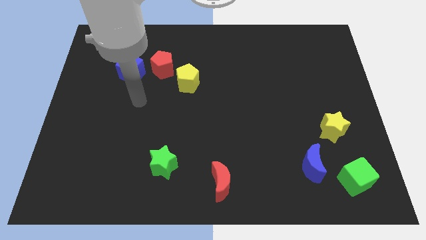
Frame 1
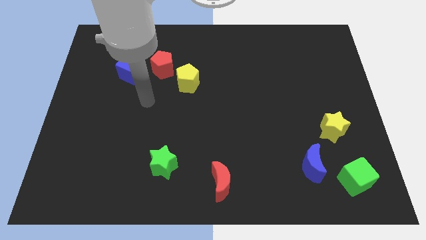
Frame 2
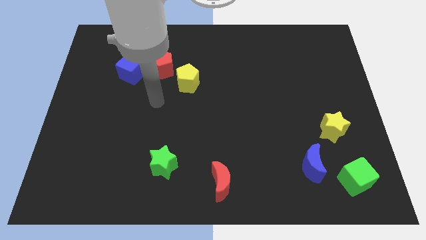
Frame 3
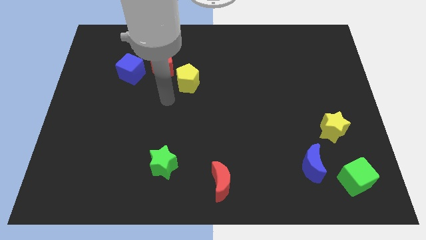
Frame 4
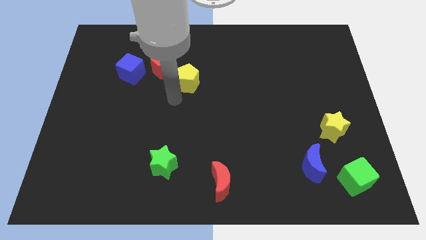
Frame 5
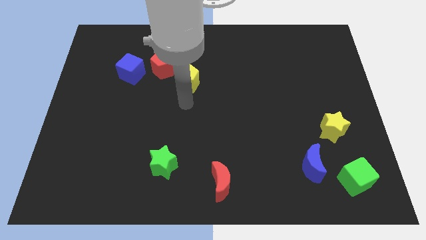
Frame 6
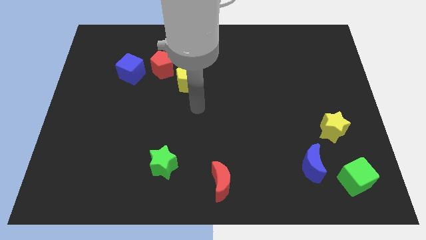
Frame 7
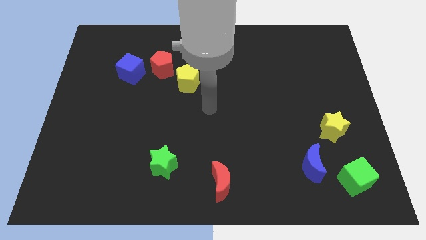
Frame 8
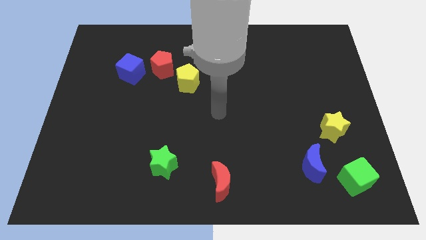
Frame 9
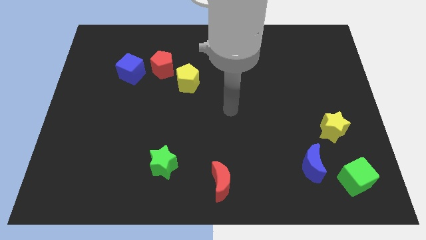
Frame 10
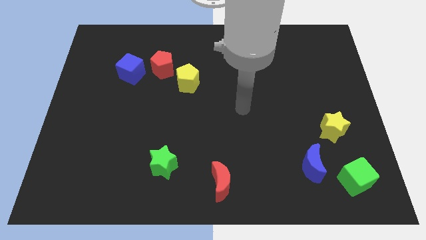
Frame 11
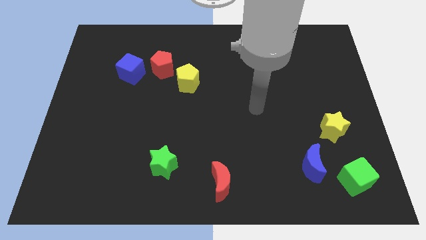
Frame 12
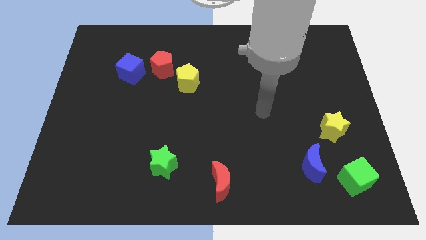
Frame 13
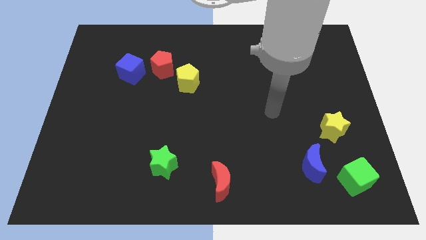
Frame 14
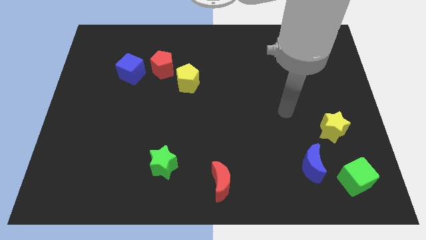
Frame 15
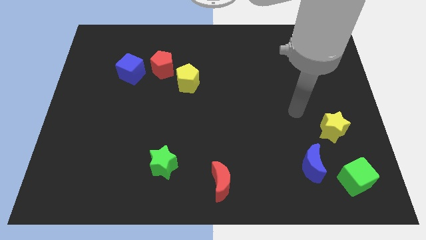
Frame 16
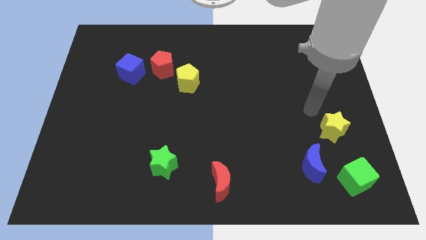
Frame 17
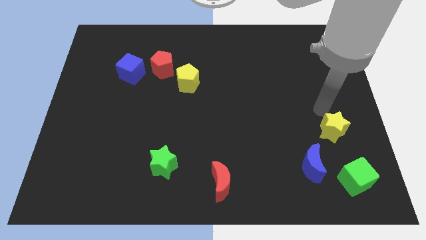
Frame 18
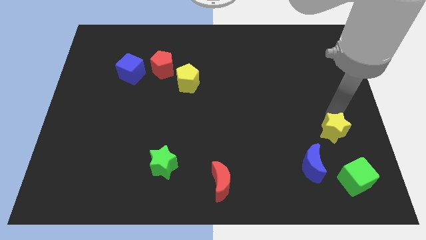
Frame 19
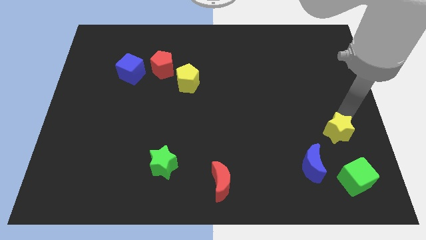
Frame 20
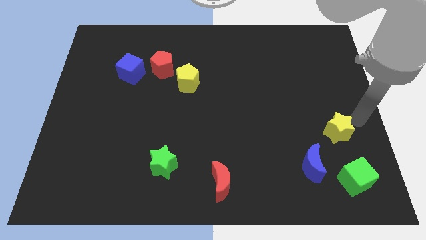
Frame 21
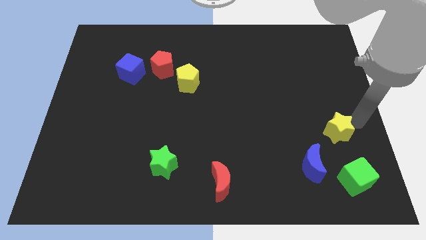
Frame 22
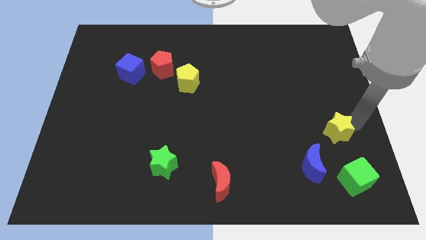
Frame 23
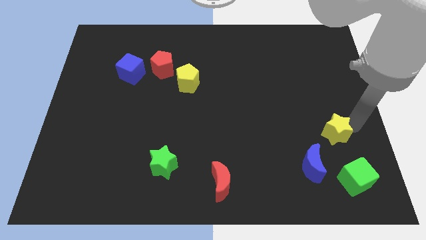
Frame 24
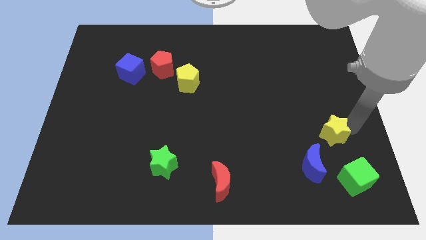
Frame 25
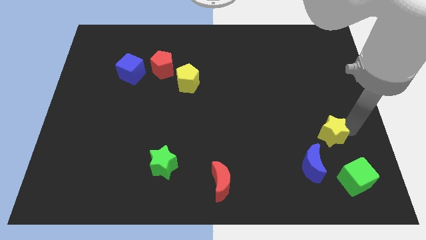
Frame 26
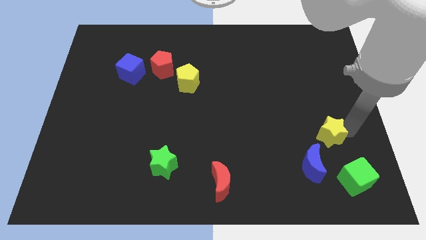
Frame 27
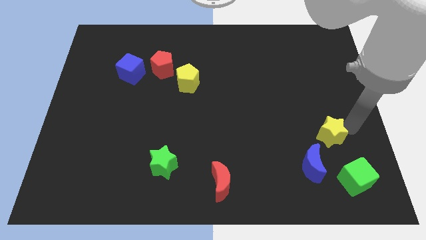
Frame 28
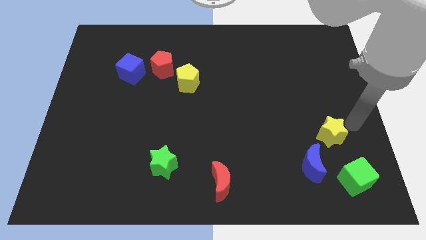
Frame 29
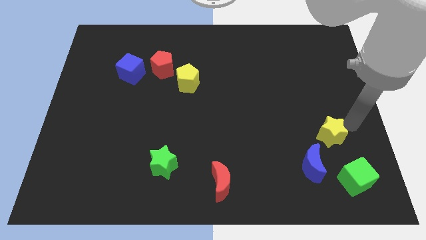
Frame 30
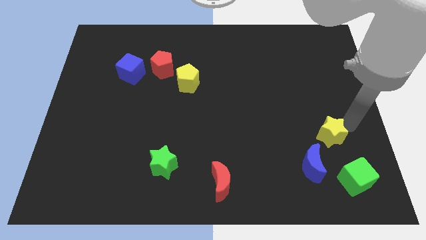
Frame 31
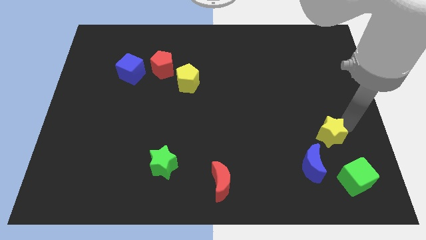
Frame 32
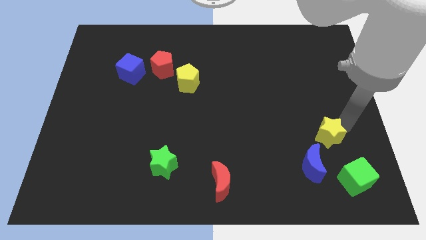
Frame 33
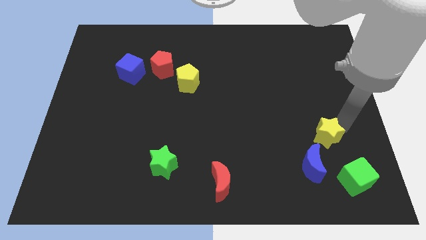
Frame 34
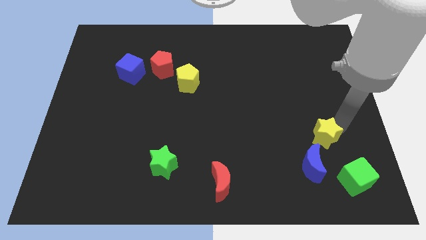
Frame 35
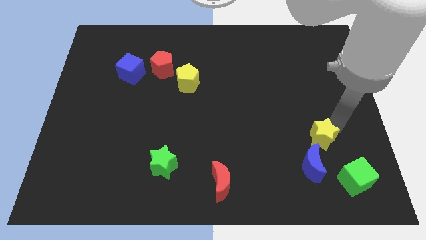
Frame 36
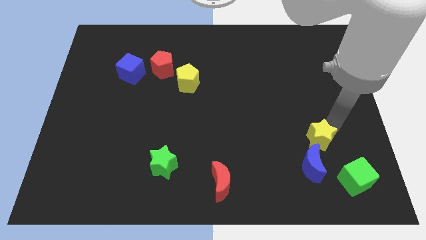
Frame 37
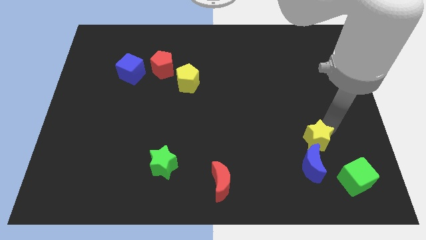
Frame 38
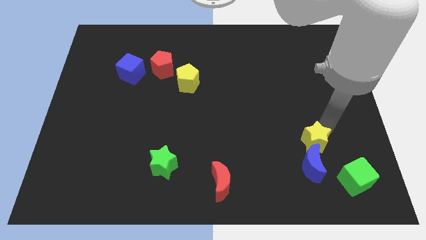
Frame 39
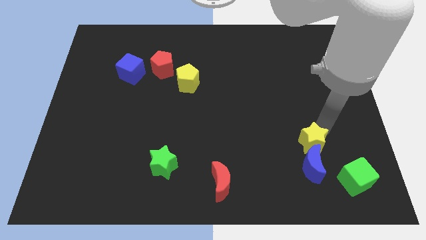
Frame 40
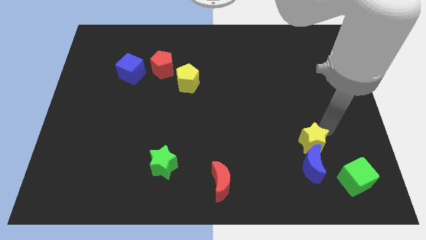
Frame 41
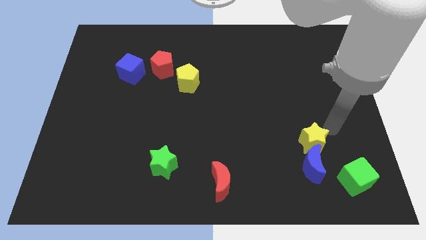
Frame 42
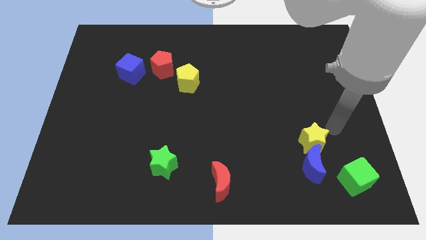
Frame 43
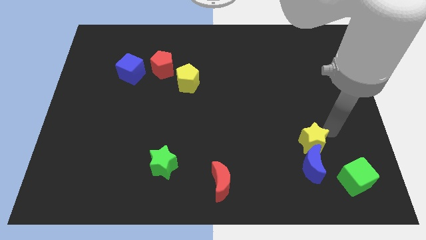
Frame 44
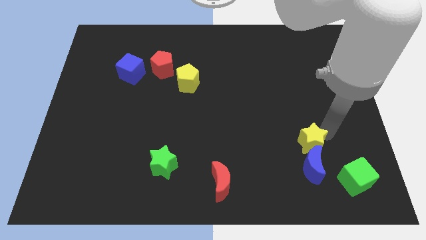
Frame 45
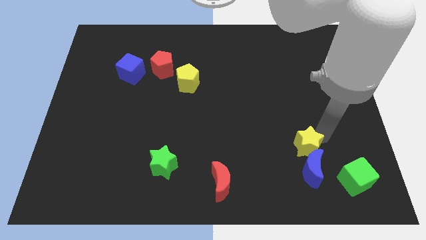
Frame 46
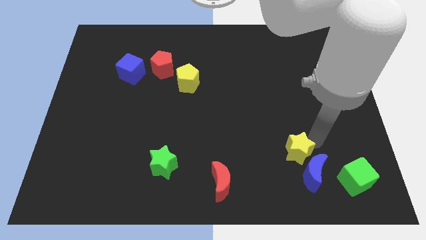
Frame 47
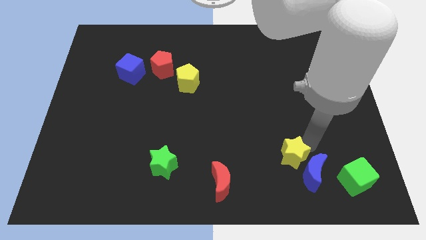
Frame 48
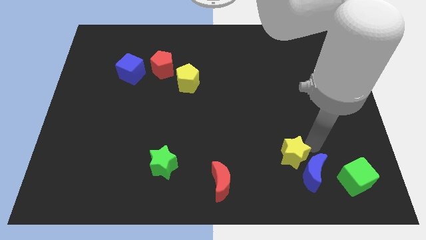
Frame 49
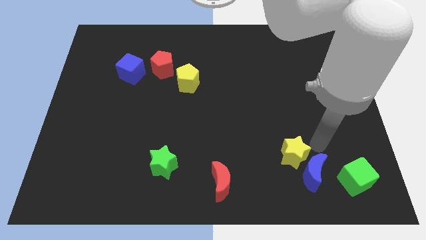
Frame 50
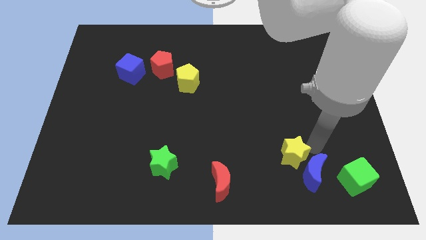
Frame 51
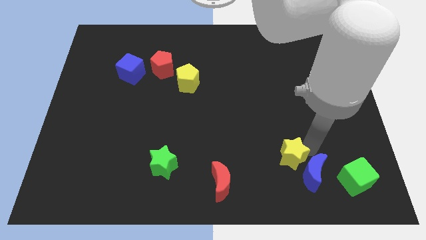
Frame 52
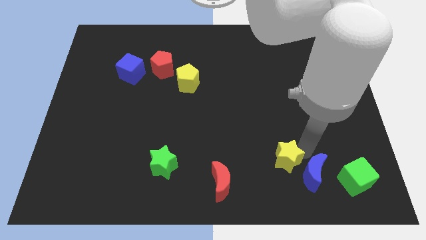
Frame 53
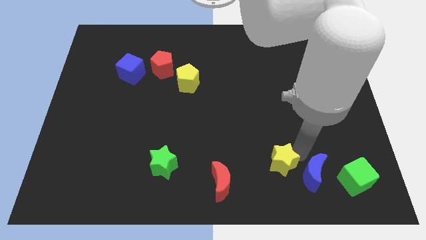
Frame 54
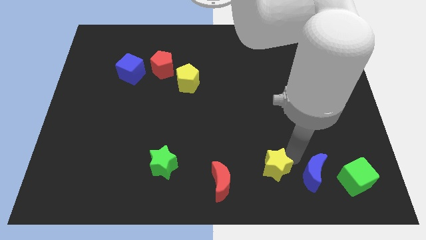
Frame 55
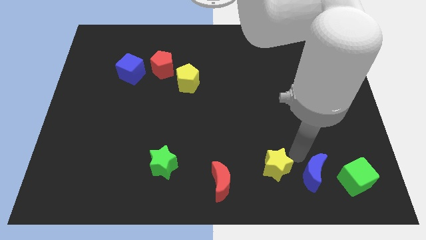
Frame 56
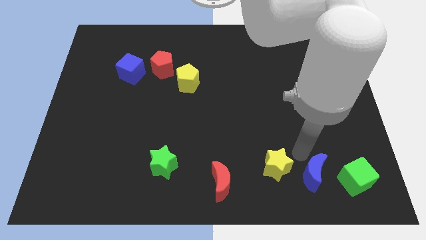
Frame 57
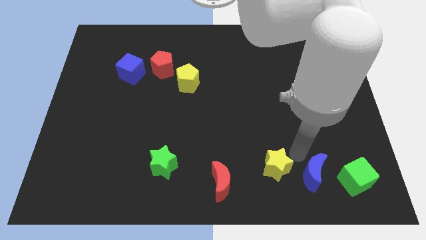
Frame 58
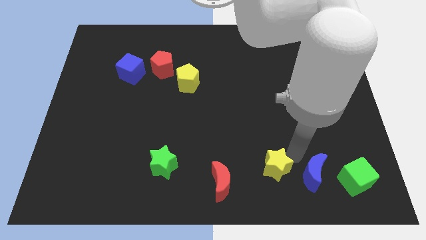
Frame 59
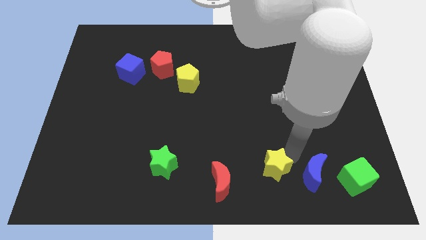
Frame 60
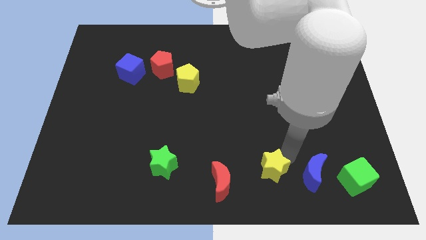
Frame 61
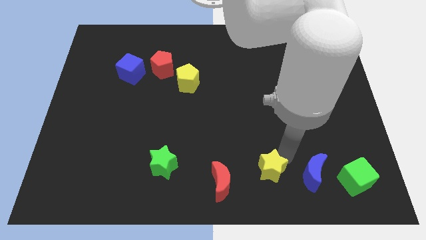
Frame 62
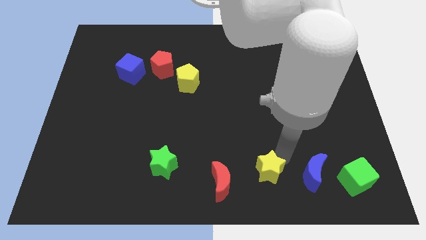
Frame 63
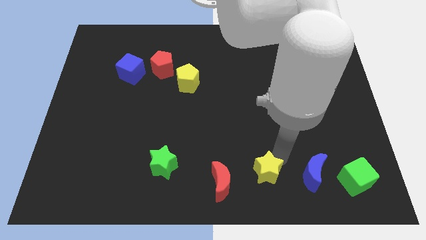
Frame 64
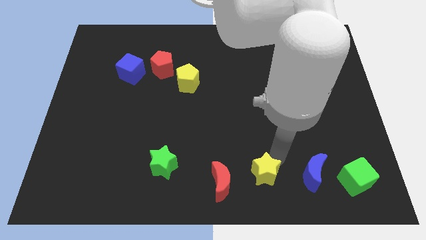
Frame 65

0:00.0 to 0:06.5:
move the yellow star to the bottom
